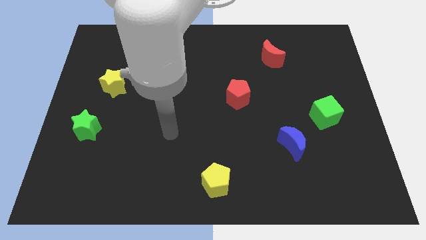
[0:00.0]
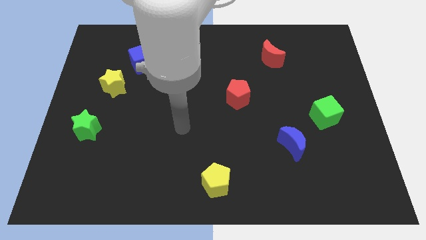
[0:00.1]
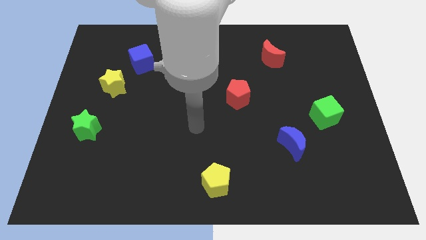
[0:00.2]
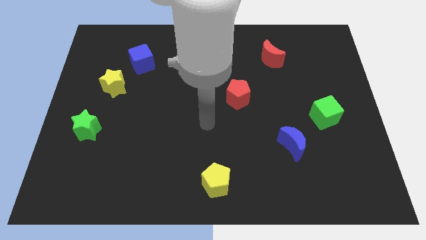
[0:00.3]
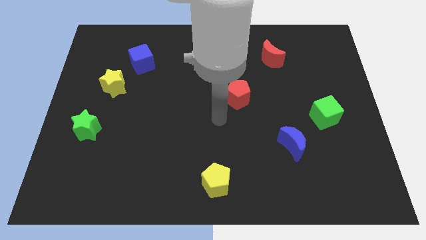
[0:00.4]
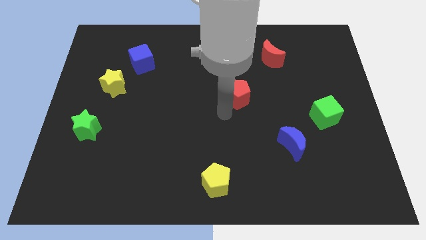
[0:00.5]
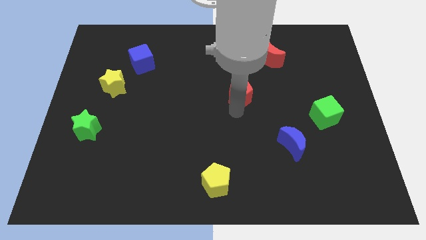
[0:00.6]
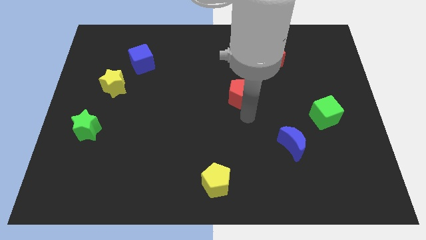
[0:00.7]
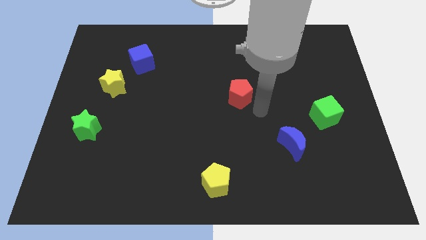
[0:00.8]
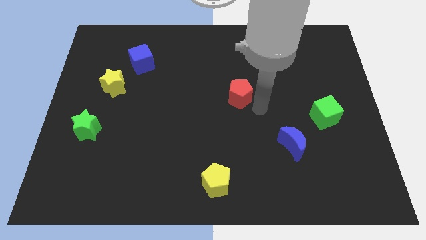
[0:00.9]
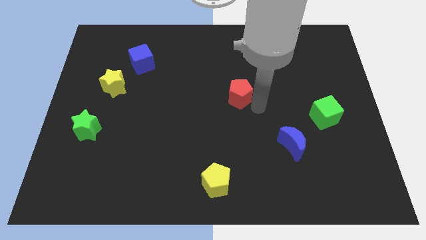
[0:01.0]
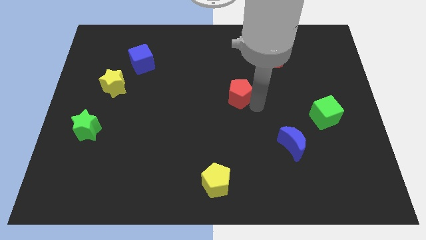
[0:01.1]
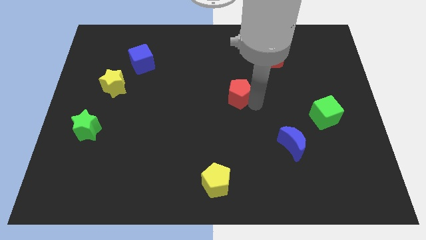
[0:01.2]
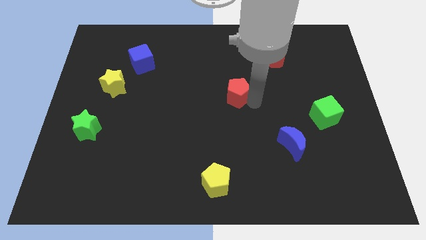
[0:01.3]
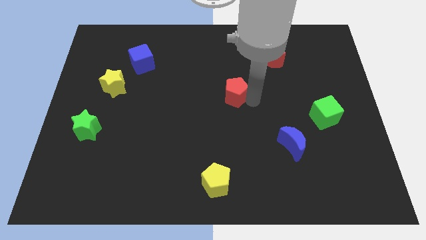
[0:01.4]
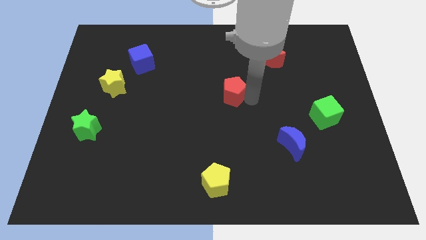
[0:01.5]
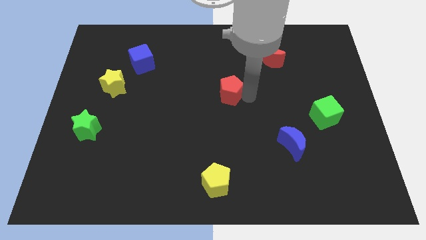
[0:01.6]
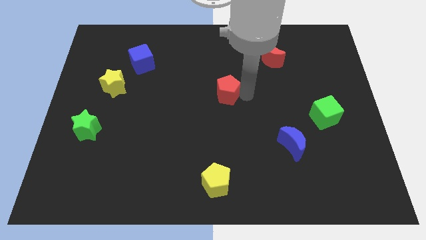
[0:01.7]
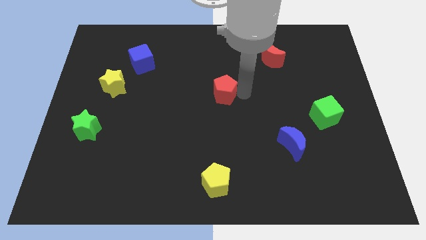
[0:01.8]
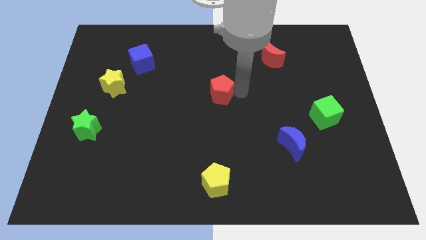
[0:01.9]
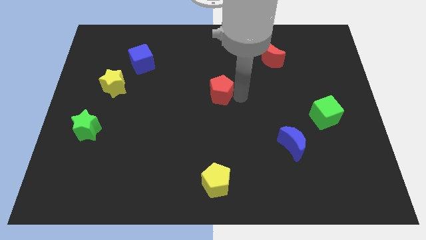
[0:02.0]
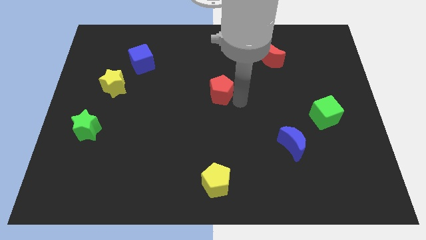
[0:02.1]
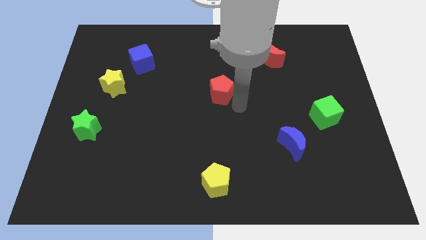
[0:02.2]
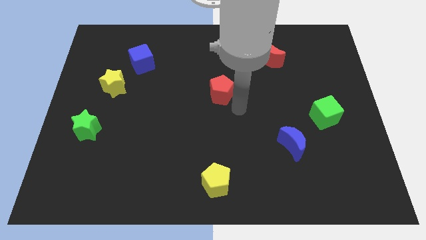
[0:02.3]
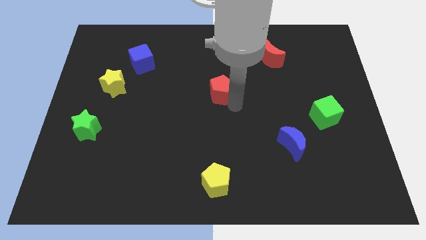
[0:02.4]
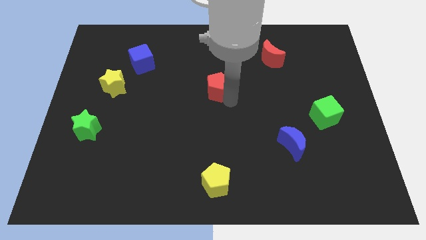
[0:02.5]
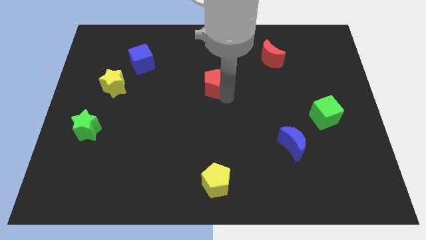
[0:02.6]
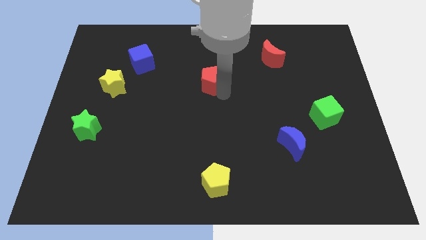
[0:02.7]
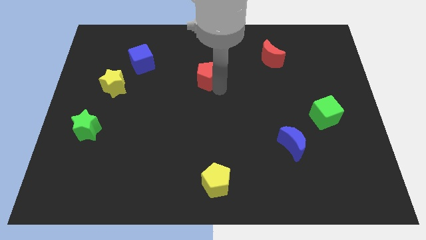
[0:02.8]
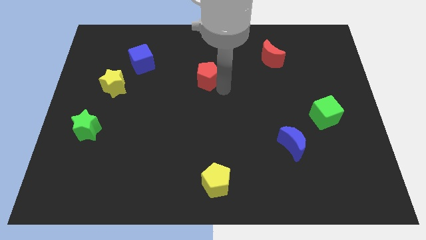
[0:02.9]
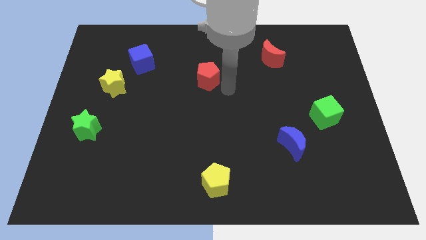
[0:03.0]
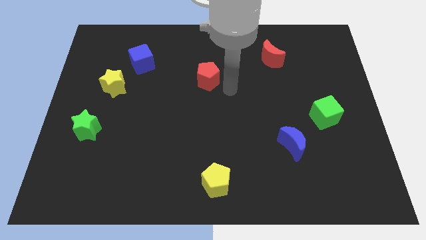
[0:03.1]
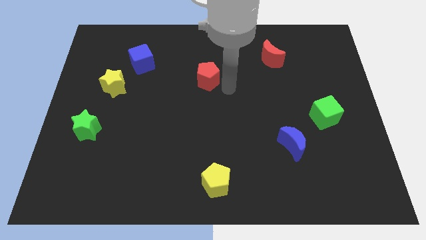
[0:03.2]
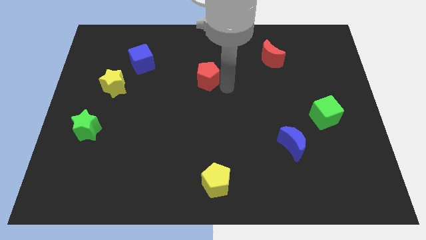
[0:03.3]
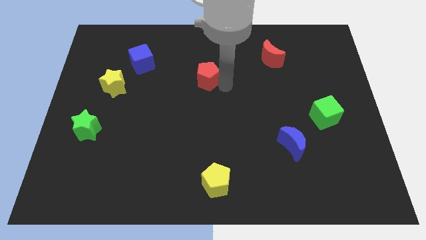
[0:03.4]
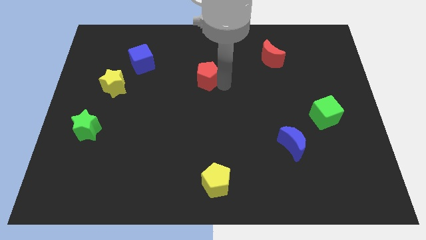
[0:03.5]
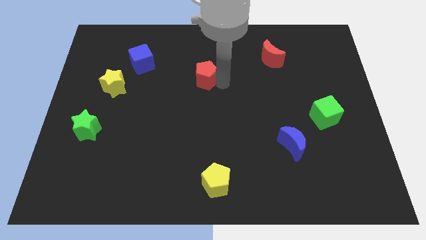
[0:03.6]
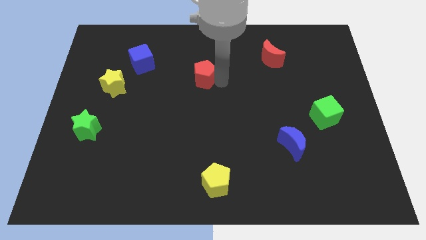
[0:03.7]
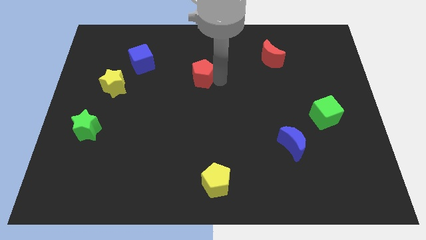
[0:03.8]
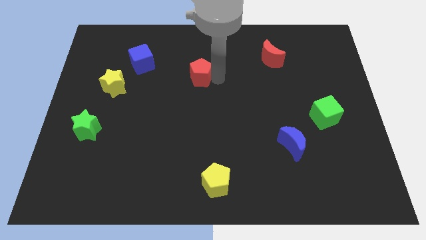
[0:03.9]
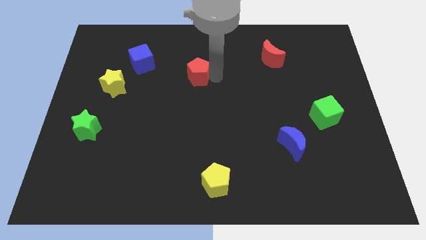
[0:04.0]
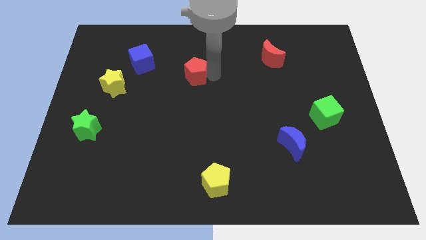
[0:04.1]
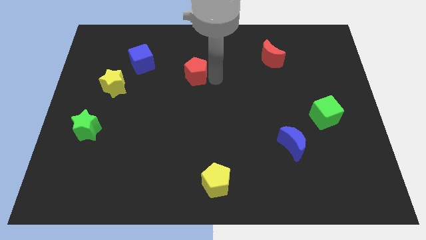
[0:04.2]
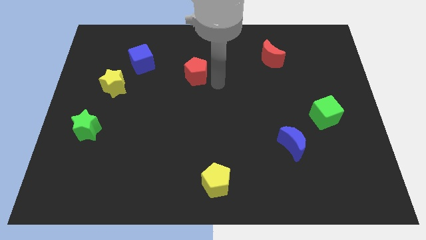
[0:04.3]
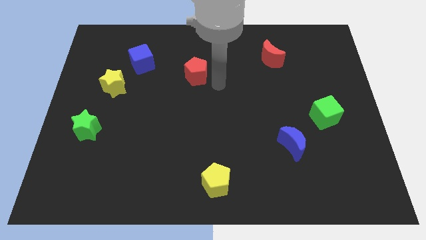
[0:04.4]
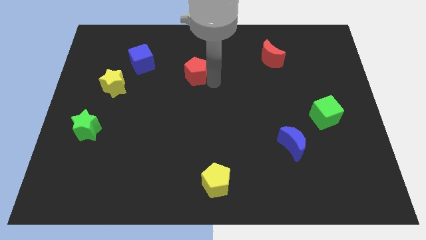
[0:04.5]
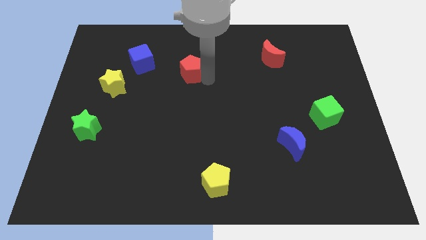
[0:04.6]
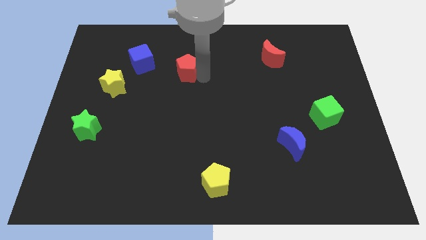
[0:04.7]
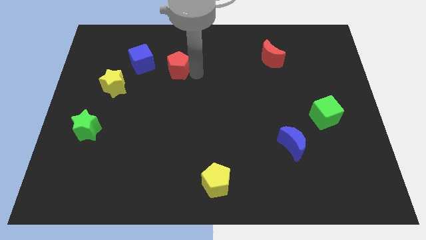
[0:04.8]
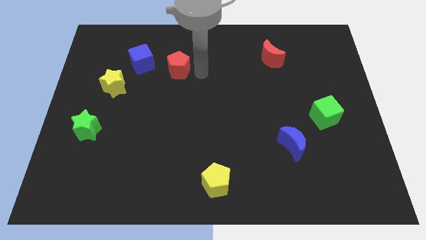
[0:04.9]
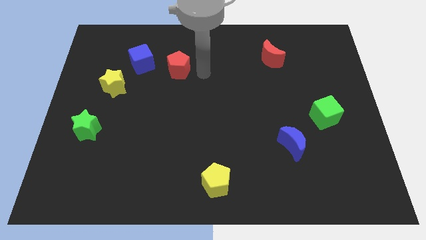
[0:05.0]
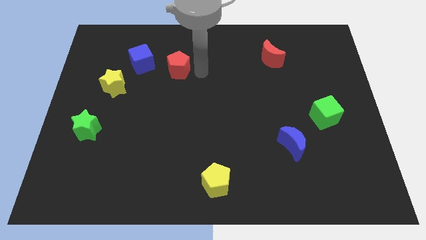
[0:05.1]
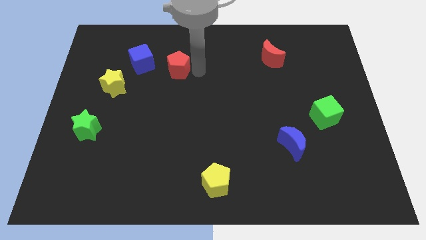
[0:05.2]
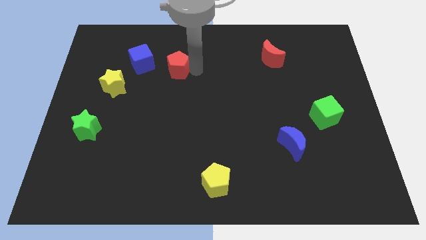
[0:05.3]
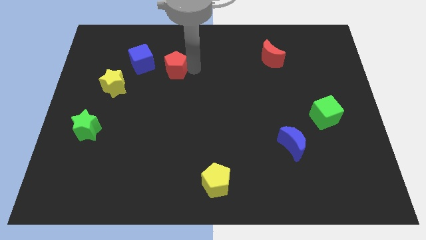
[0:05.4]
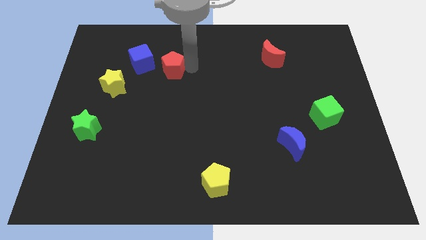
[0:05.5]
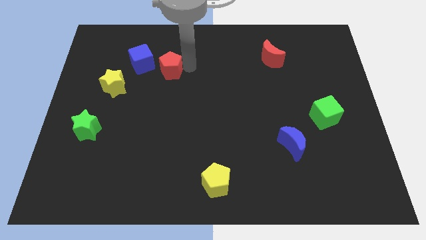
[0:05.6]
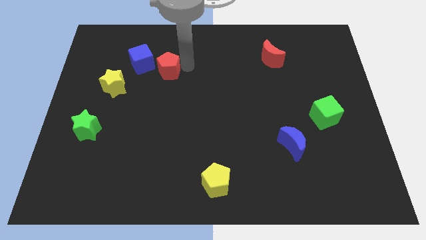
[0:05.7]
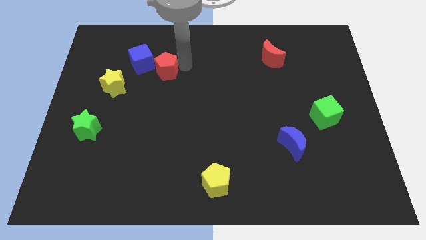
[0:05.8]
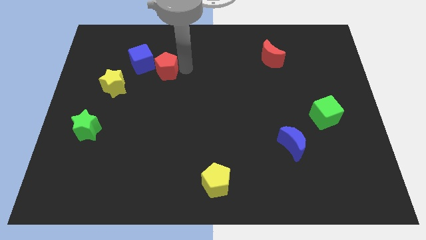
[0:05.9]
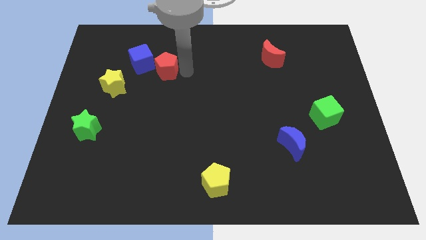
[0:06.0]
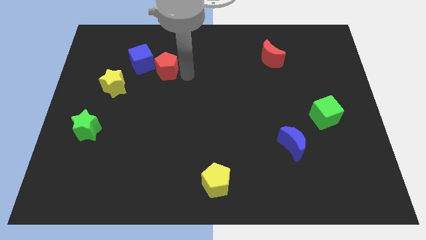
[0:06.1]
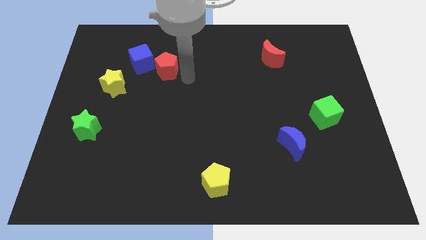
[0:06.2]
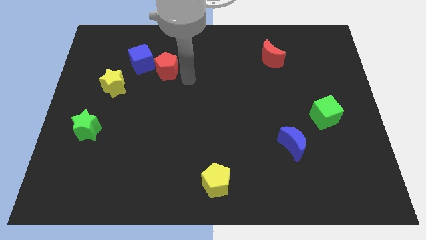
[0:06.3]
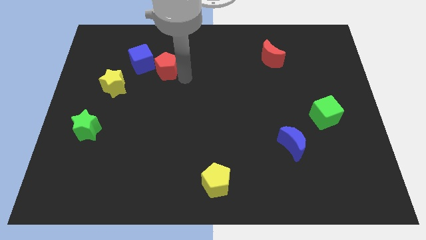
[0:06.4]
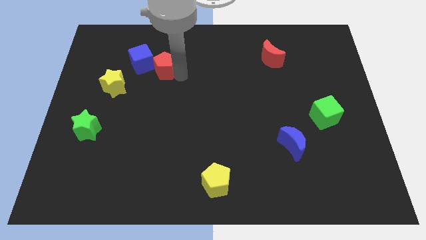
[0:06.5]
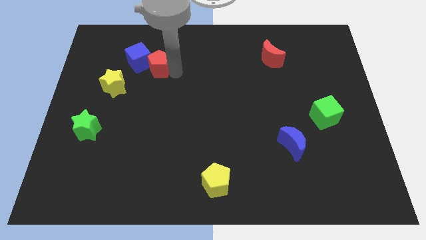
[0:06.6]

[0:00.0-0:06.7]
move the red pentagon to the blue cube

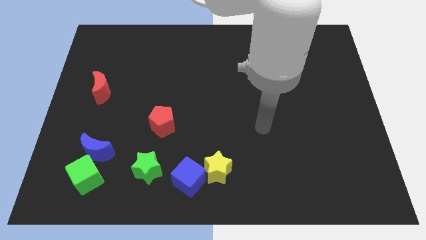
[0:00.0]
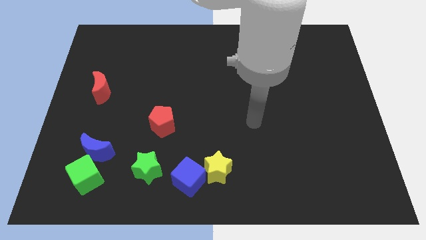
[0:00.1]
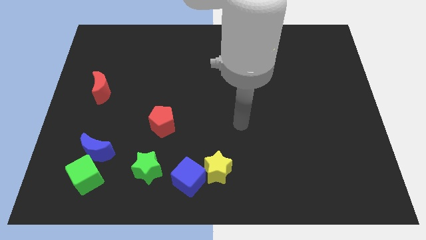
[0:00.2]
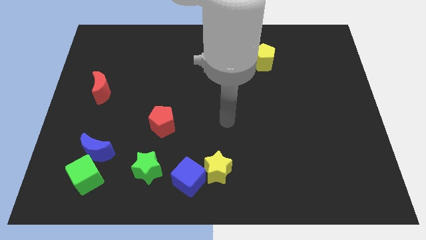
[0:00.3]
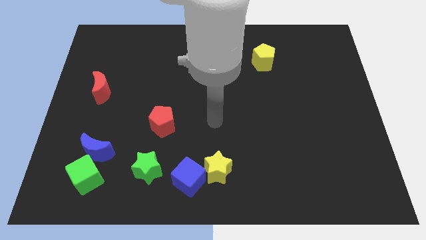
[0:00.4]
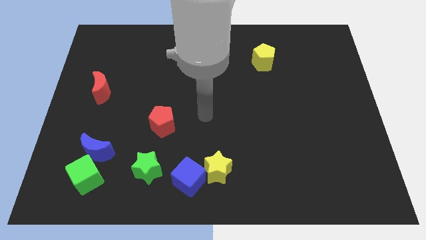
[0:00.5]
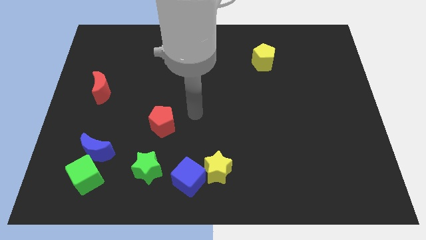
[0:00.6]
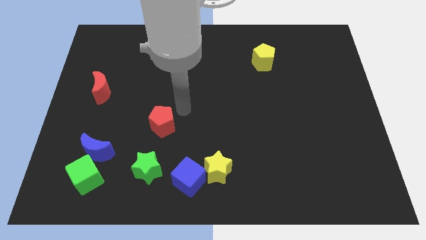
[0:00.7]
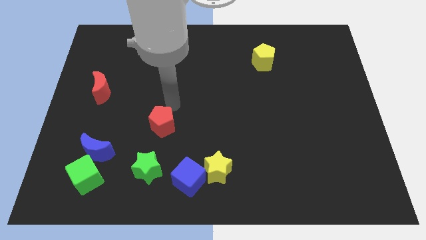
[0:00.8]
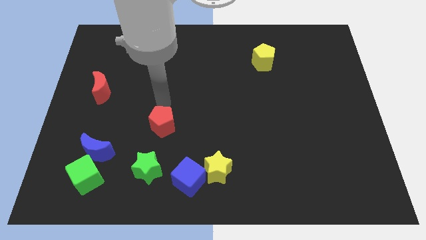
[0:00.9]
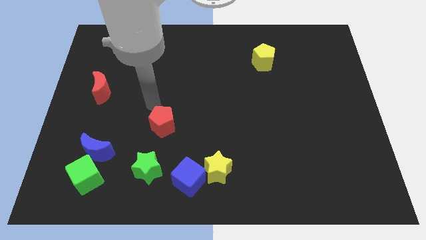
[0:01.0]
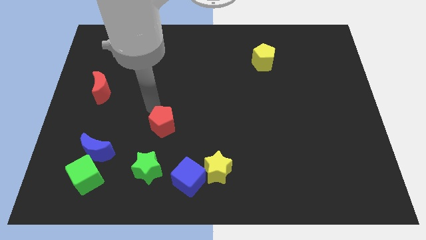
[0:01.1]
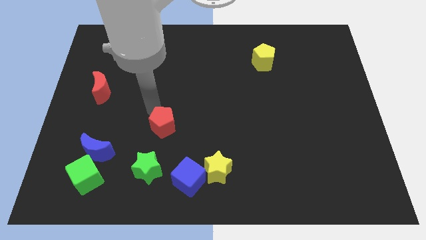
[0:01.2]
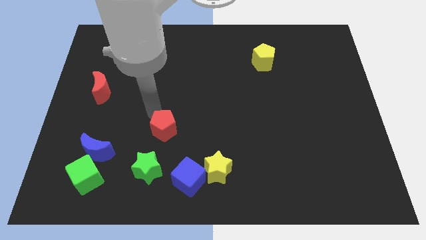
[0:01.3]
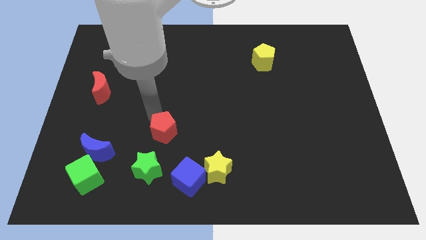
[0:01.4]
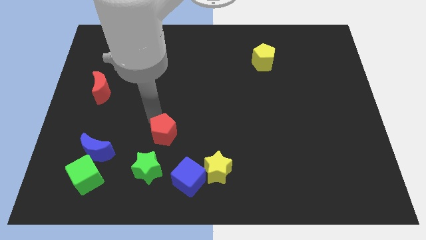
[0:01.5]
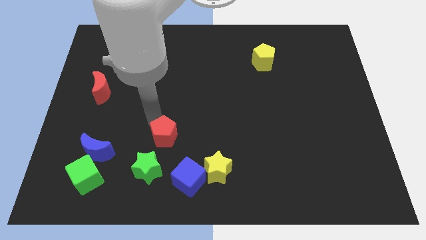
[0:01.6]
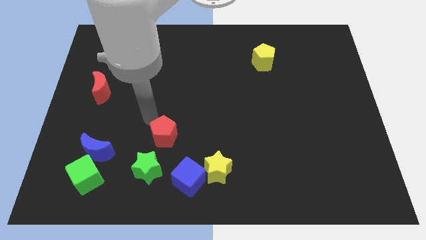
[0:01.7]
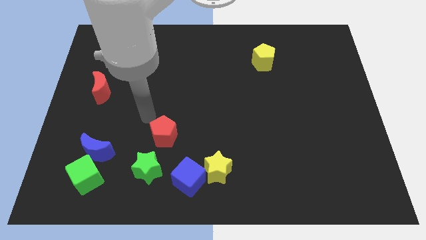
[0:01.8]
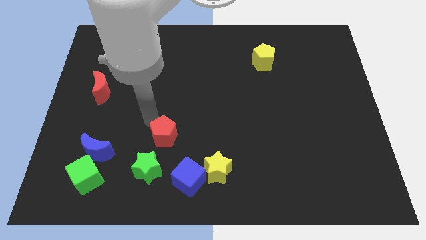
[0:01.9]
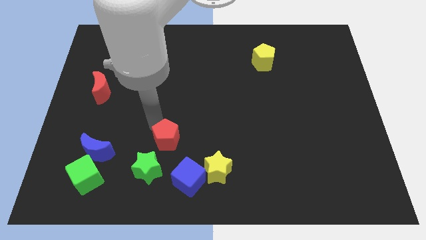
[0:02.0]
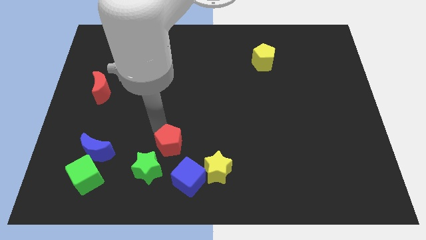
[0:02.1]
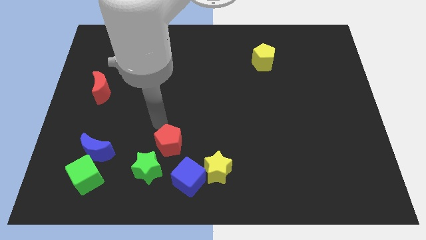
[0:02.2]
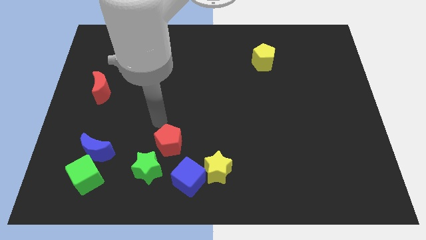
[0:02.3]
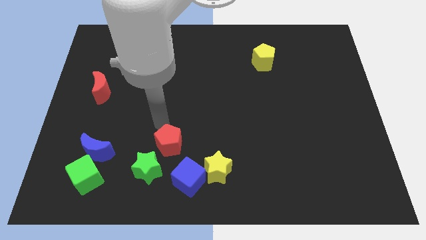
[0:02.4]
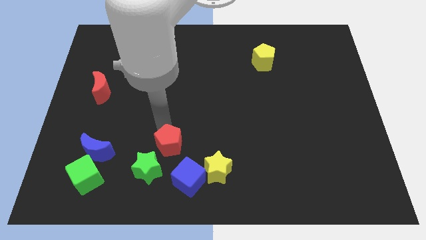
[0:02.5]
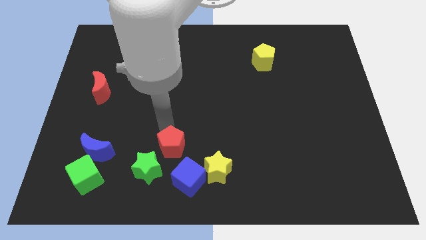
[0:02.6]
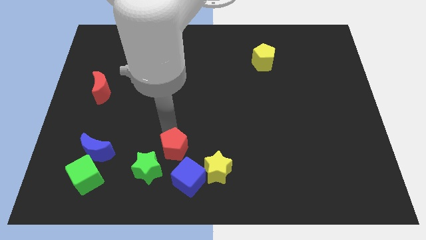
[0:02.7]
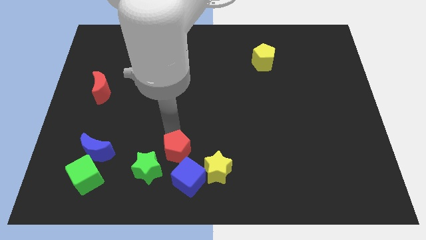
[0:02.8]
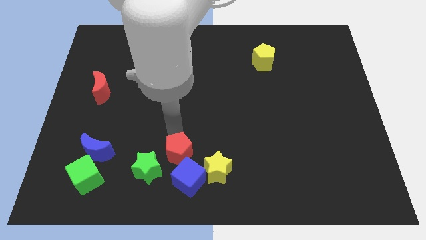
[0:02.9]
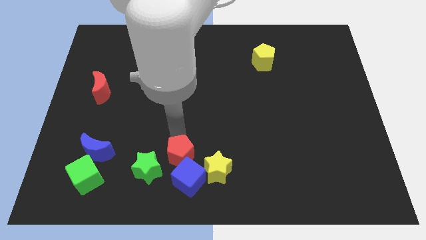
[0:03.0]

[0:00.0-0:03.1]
push the red pentagon to the blue cube
